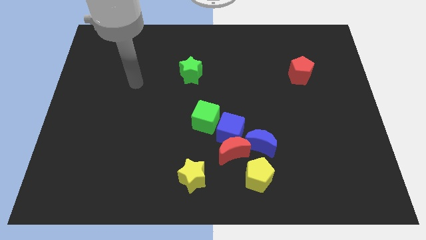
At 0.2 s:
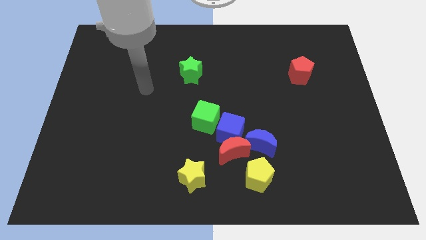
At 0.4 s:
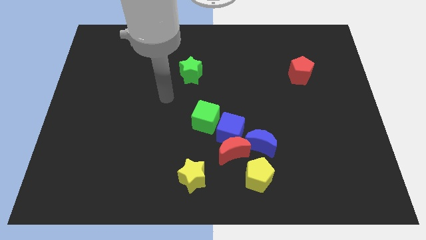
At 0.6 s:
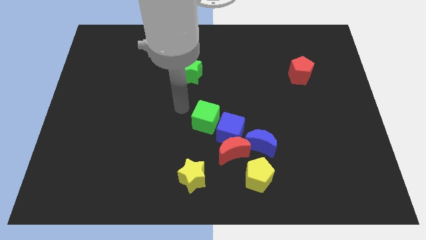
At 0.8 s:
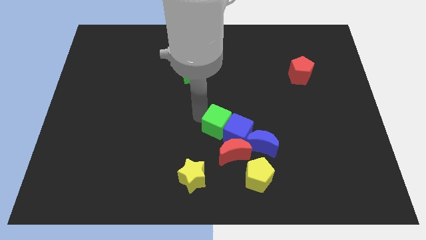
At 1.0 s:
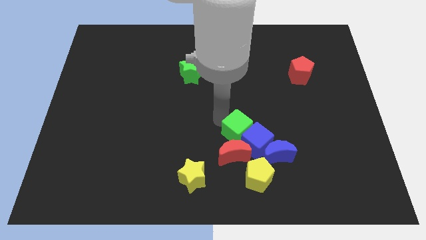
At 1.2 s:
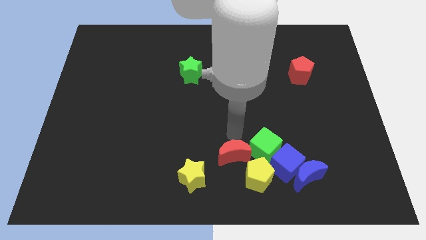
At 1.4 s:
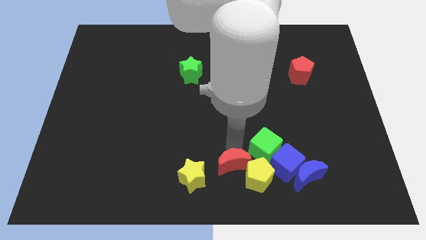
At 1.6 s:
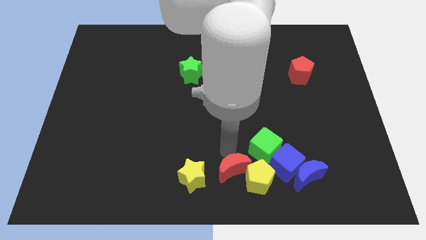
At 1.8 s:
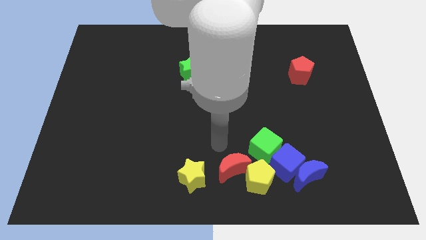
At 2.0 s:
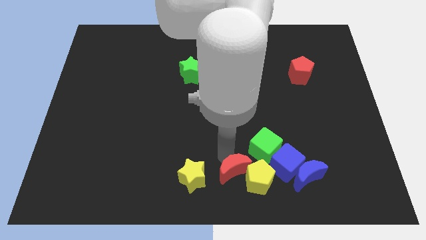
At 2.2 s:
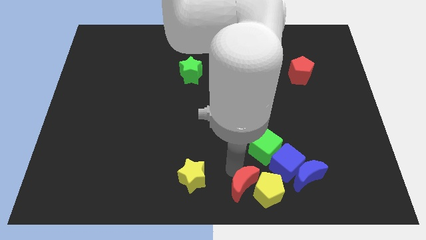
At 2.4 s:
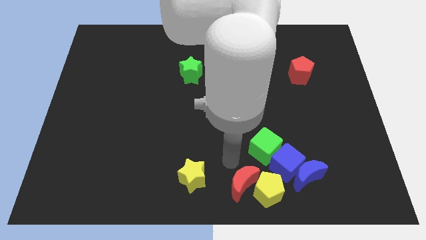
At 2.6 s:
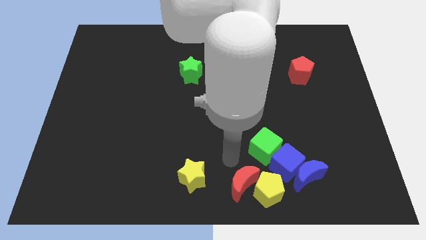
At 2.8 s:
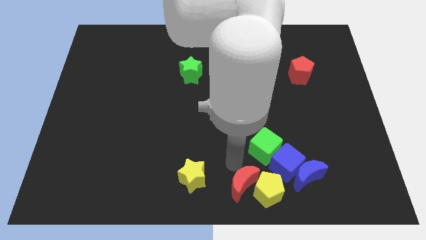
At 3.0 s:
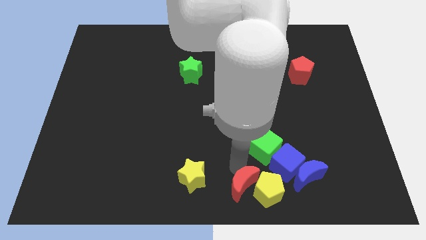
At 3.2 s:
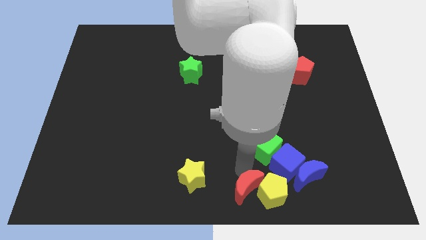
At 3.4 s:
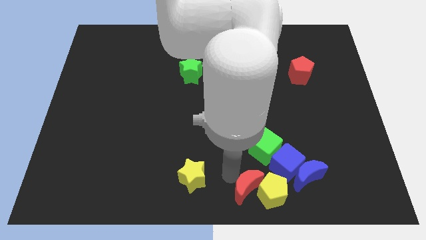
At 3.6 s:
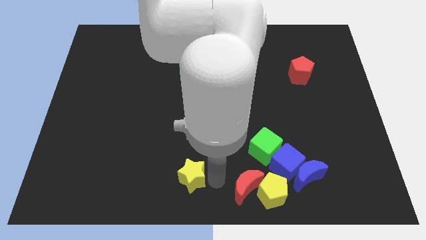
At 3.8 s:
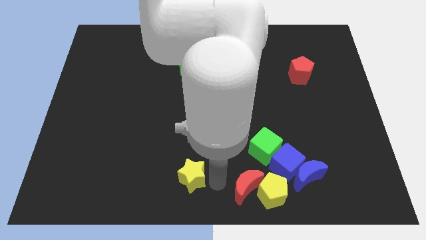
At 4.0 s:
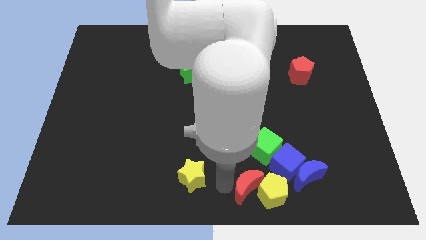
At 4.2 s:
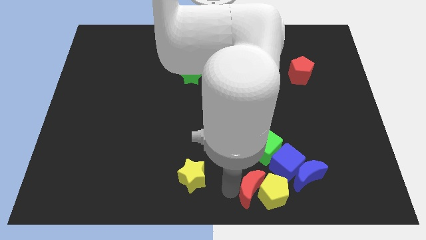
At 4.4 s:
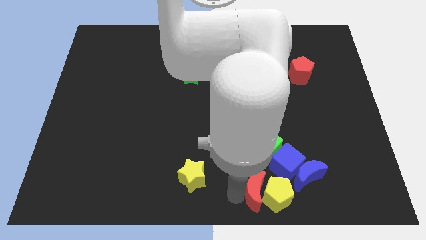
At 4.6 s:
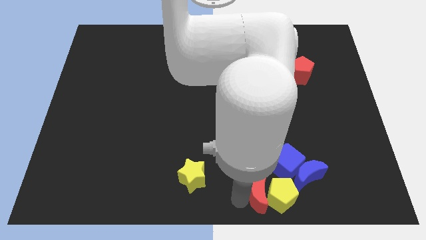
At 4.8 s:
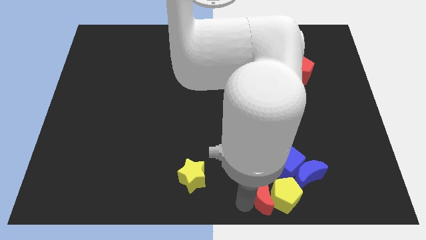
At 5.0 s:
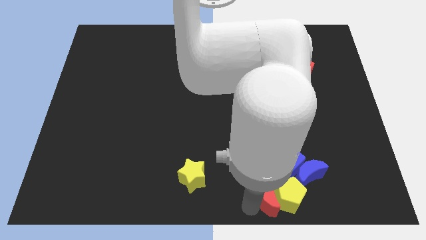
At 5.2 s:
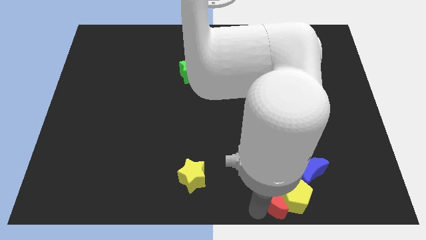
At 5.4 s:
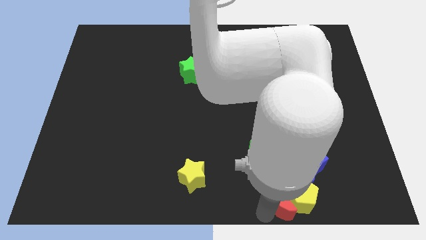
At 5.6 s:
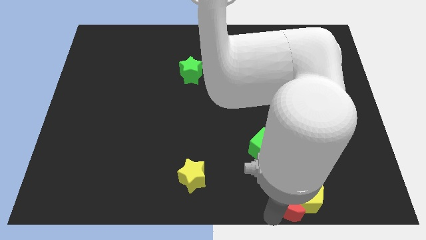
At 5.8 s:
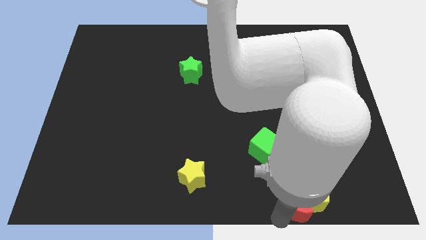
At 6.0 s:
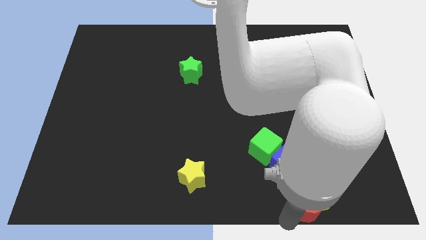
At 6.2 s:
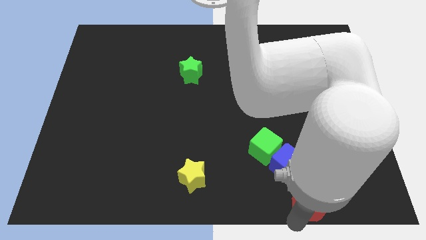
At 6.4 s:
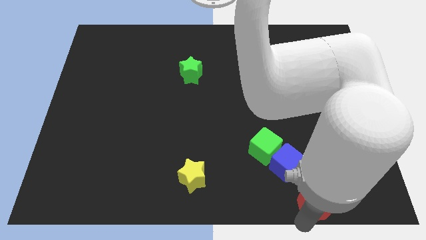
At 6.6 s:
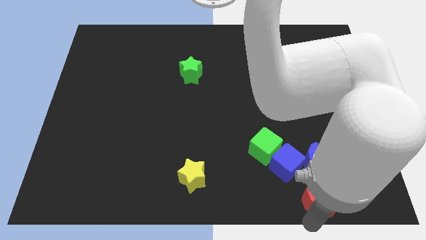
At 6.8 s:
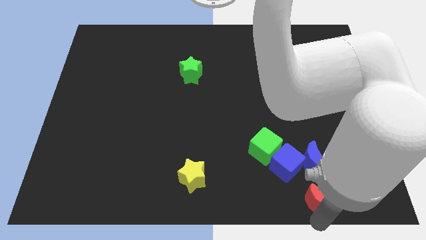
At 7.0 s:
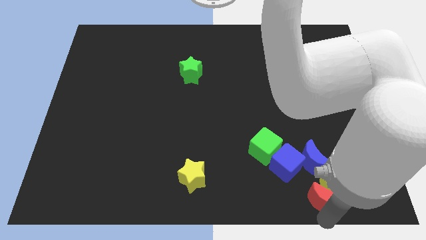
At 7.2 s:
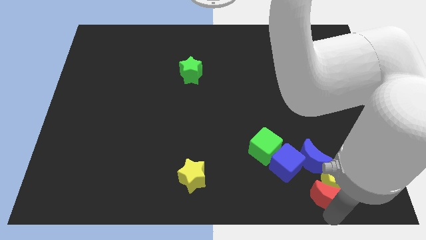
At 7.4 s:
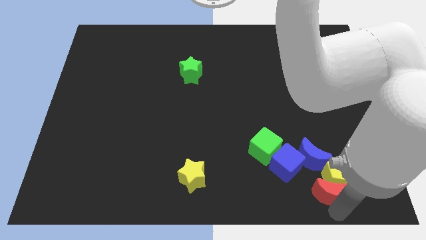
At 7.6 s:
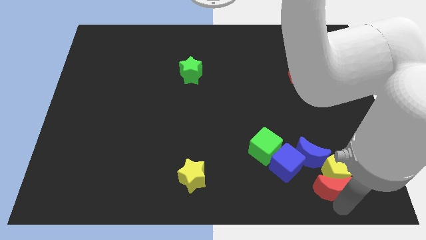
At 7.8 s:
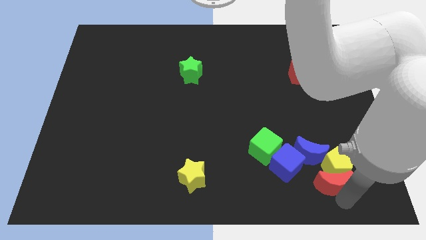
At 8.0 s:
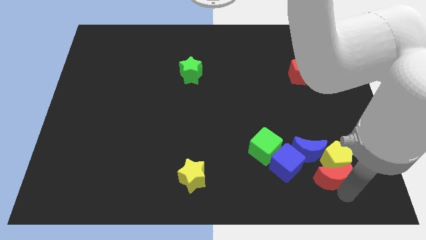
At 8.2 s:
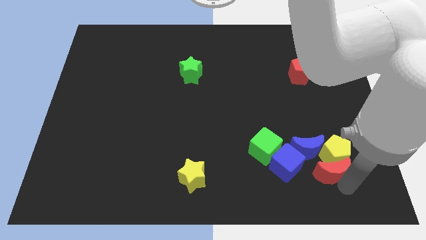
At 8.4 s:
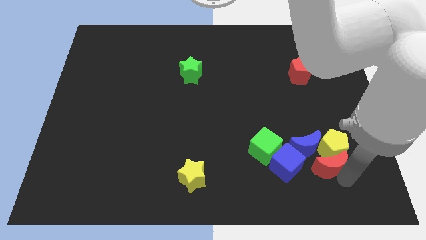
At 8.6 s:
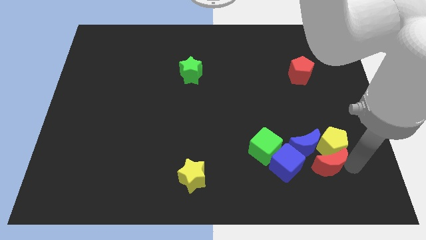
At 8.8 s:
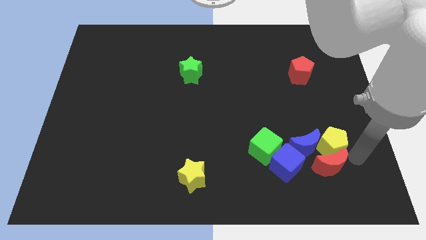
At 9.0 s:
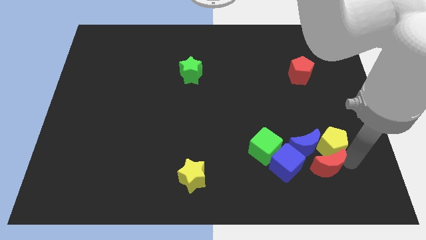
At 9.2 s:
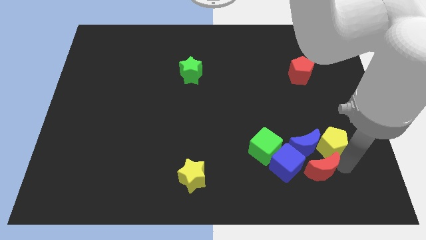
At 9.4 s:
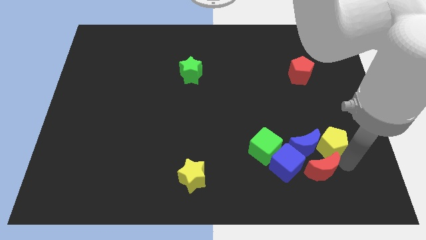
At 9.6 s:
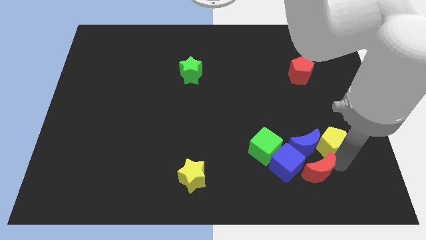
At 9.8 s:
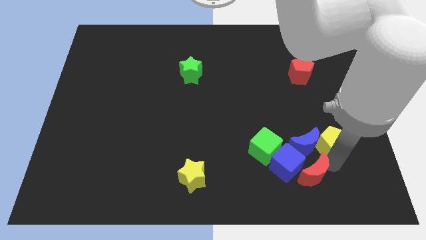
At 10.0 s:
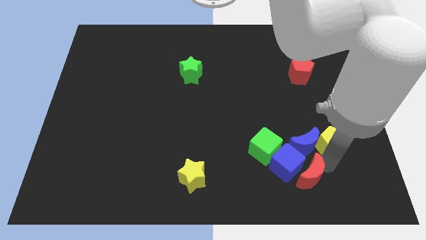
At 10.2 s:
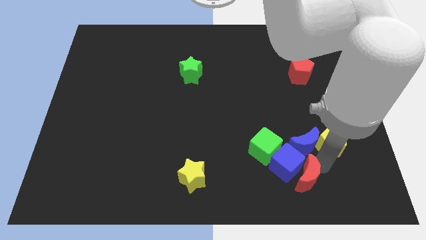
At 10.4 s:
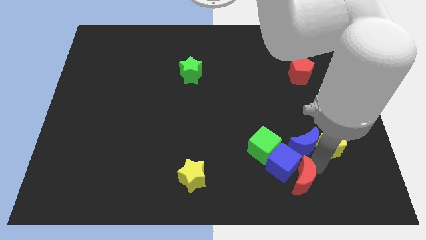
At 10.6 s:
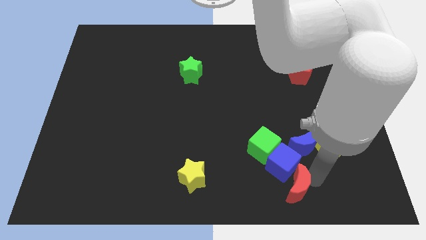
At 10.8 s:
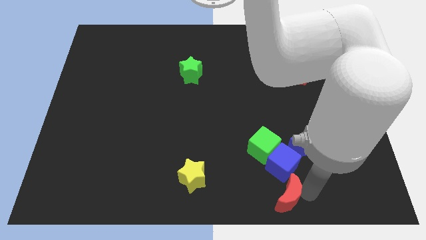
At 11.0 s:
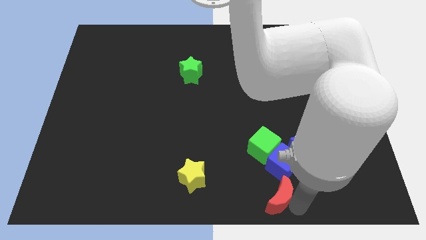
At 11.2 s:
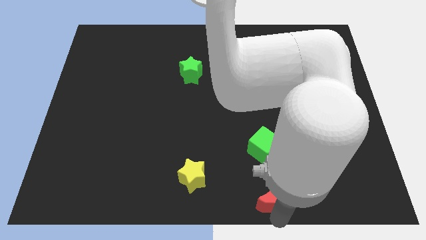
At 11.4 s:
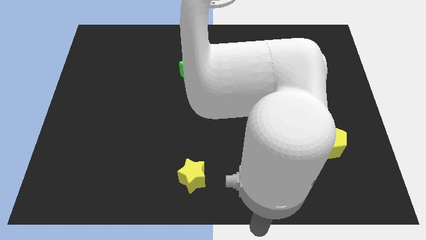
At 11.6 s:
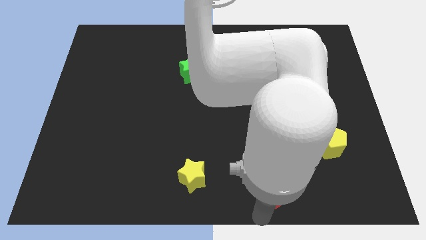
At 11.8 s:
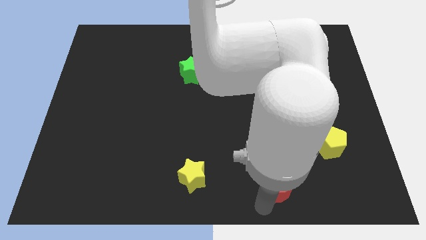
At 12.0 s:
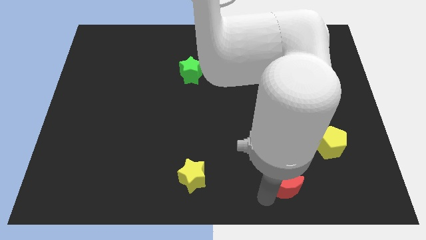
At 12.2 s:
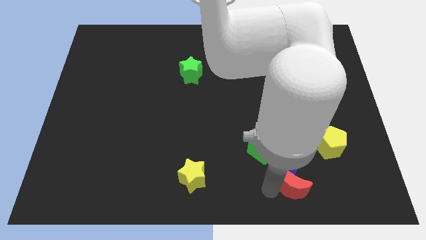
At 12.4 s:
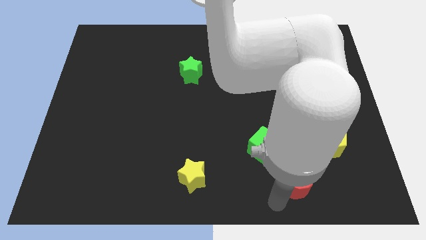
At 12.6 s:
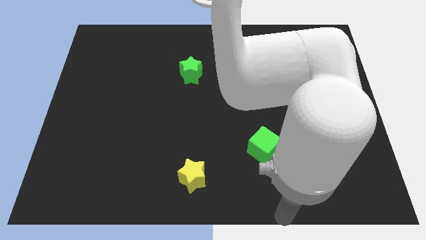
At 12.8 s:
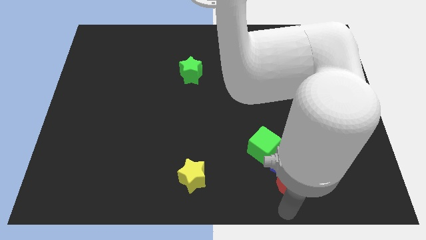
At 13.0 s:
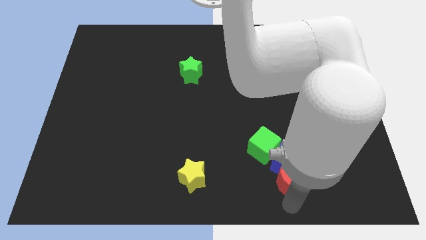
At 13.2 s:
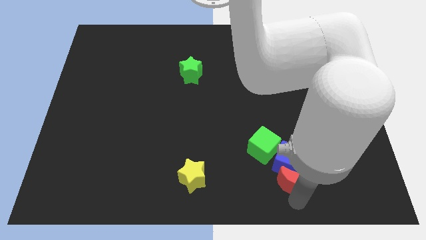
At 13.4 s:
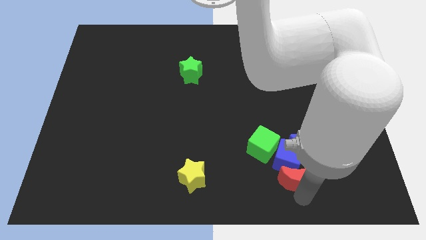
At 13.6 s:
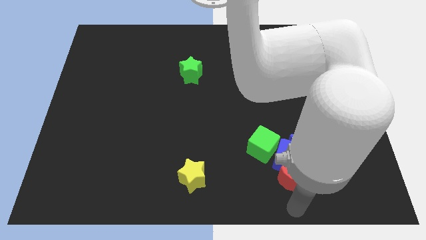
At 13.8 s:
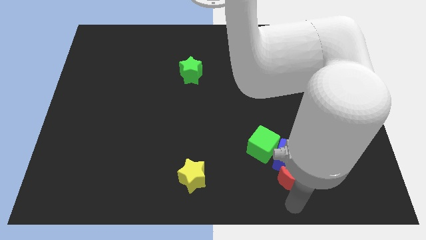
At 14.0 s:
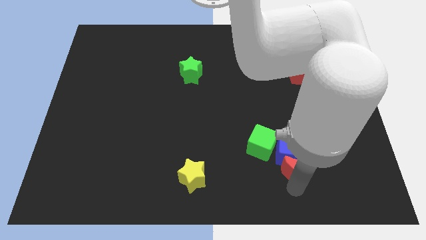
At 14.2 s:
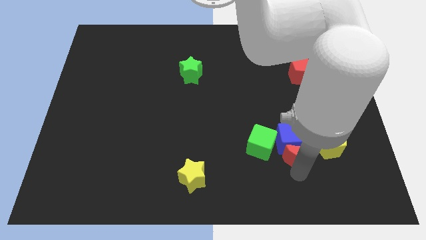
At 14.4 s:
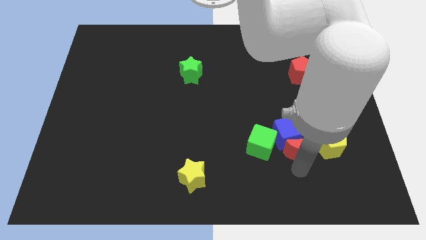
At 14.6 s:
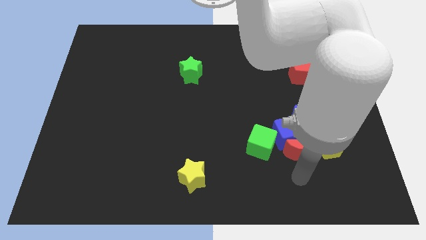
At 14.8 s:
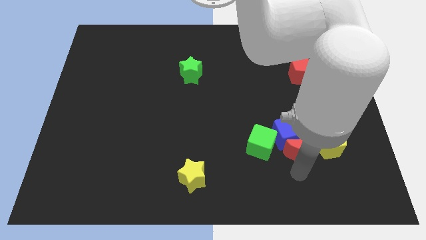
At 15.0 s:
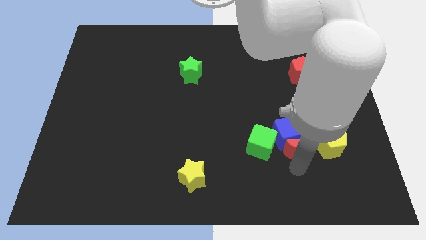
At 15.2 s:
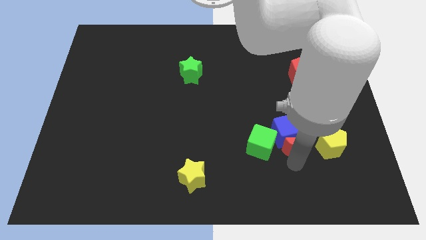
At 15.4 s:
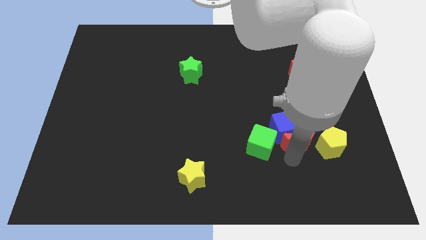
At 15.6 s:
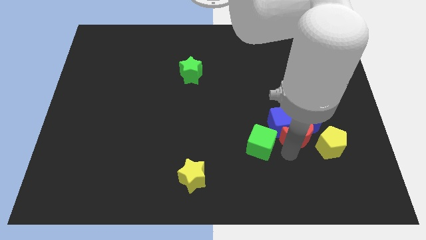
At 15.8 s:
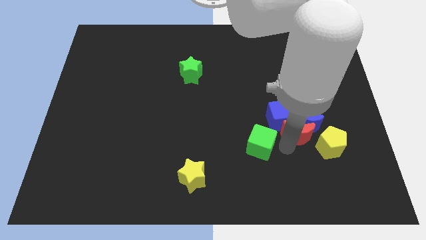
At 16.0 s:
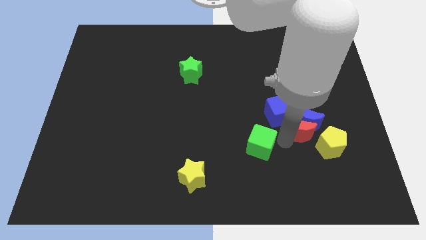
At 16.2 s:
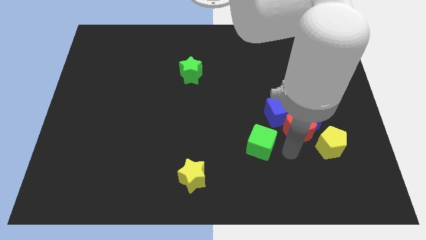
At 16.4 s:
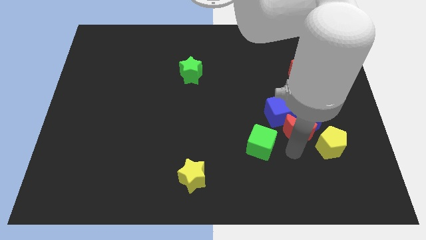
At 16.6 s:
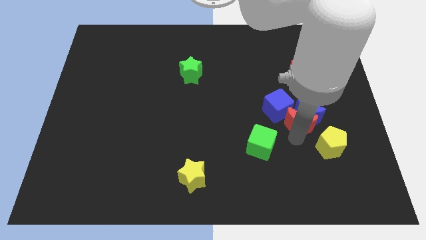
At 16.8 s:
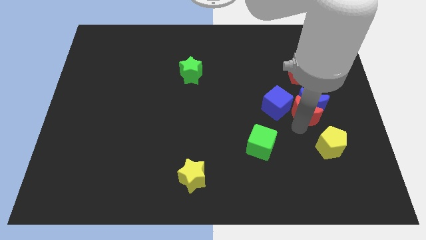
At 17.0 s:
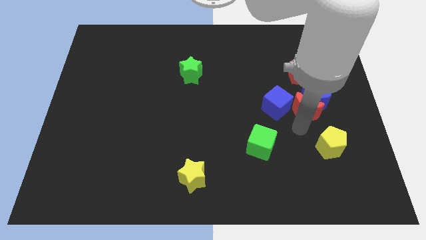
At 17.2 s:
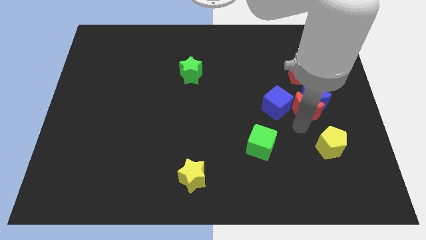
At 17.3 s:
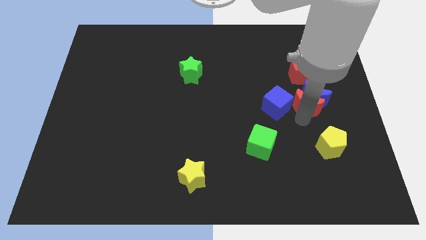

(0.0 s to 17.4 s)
push the red moon up and then right
